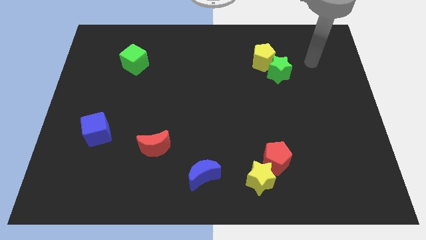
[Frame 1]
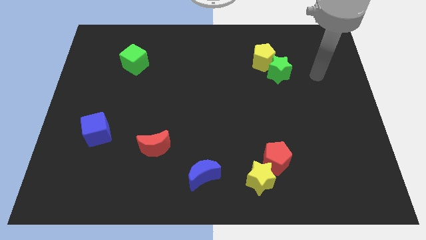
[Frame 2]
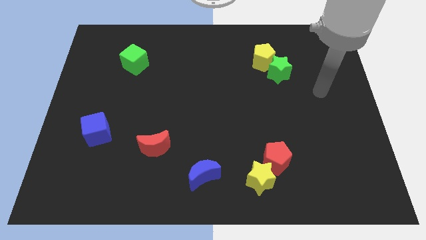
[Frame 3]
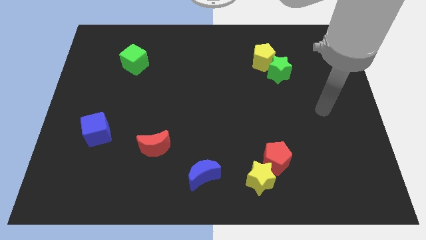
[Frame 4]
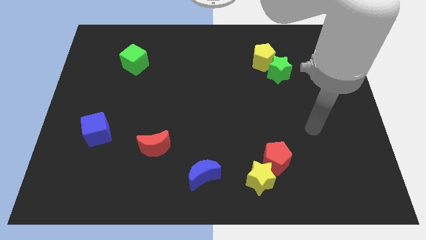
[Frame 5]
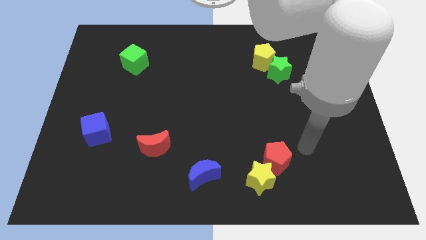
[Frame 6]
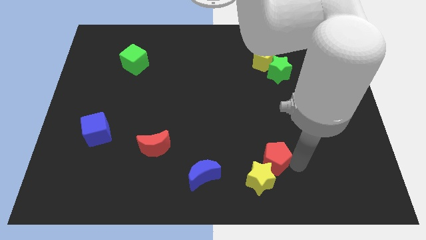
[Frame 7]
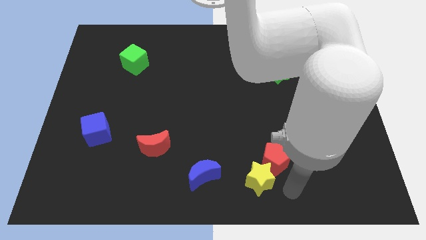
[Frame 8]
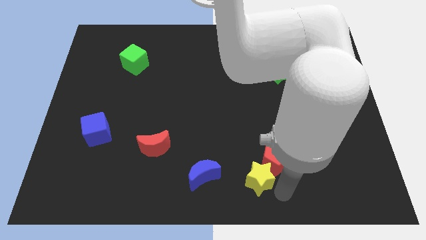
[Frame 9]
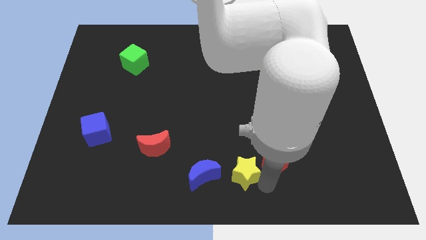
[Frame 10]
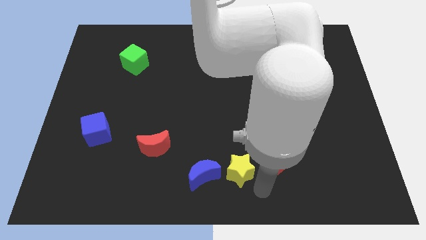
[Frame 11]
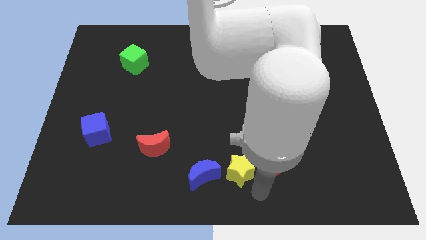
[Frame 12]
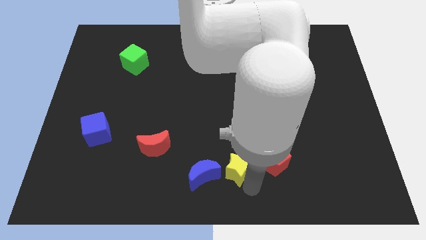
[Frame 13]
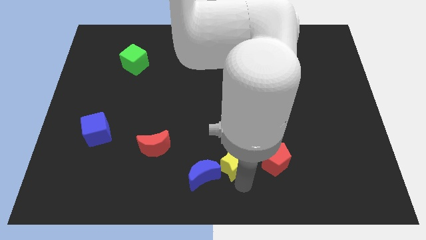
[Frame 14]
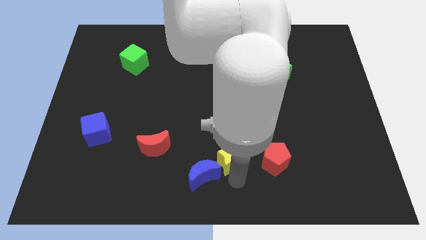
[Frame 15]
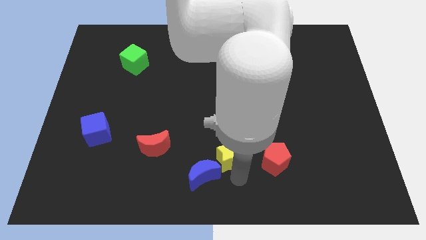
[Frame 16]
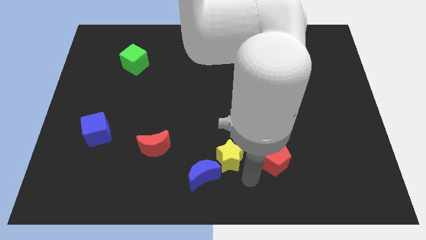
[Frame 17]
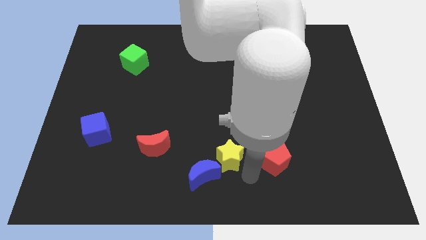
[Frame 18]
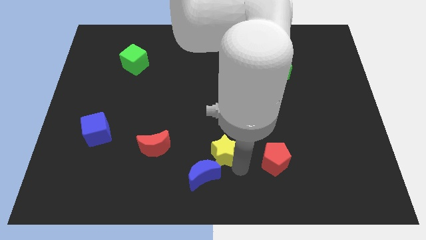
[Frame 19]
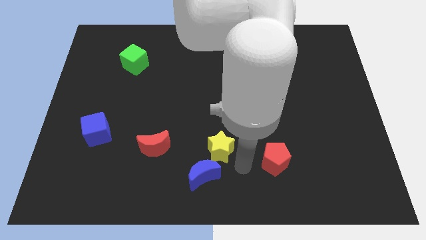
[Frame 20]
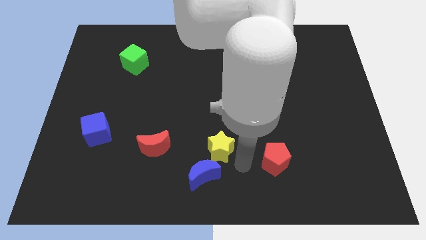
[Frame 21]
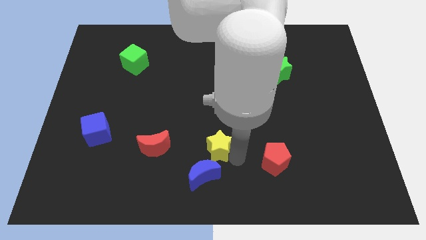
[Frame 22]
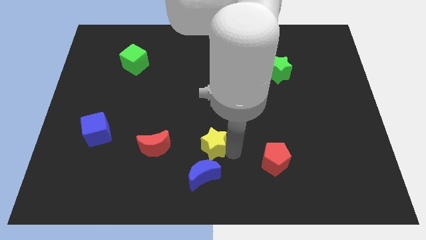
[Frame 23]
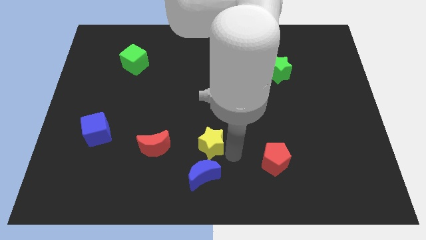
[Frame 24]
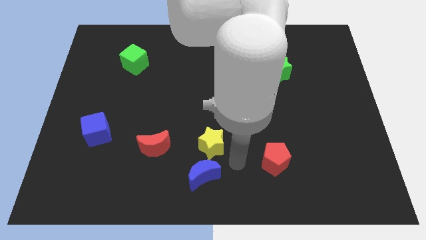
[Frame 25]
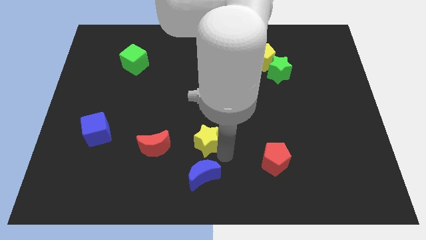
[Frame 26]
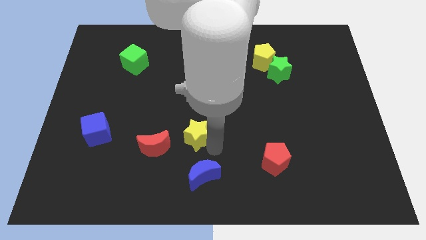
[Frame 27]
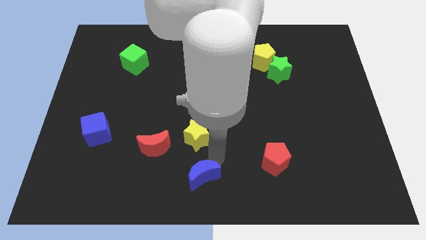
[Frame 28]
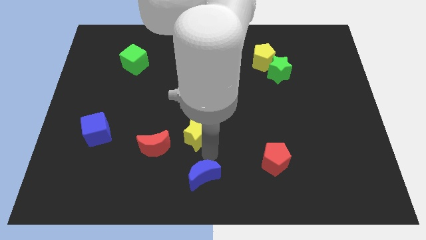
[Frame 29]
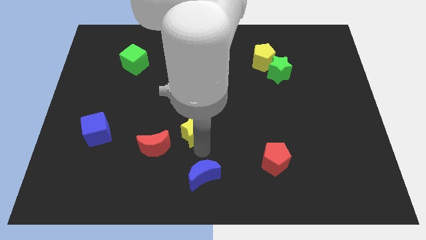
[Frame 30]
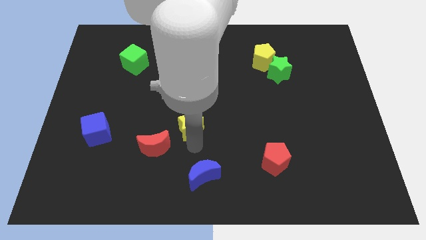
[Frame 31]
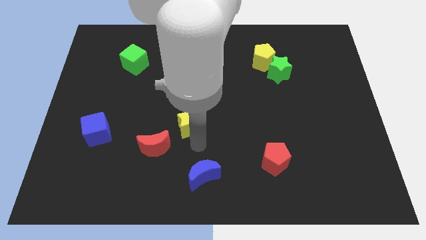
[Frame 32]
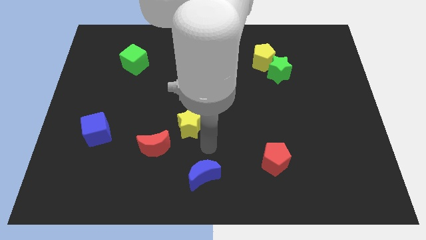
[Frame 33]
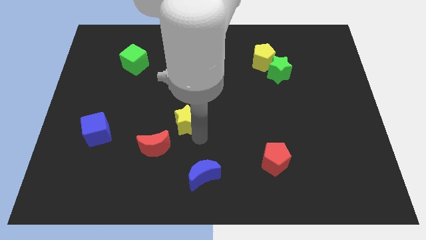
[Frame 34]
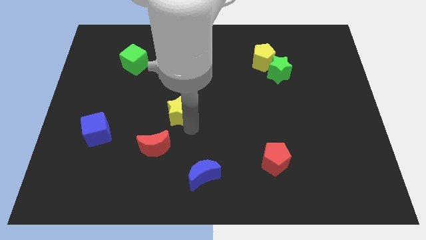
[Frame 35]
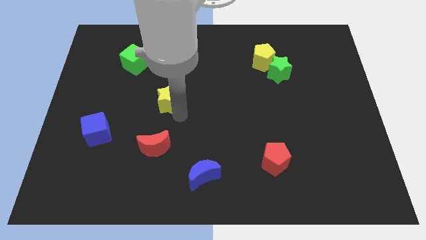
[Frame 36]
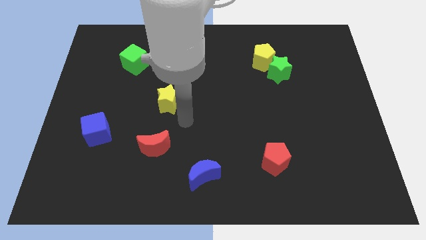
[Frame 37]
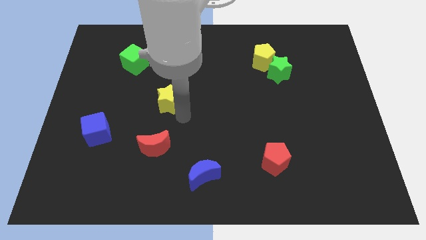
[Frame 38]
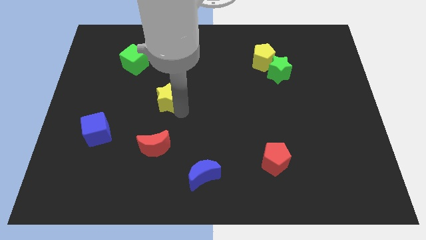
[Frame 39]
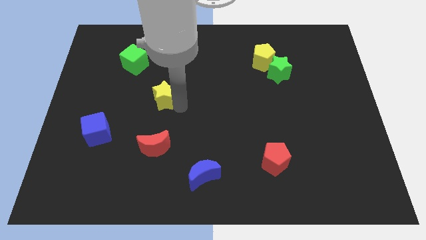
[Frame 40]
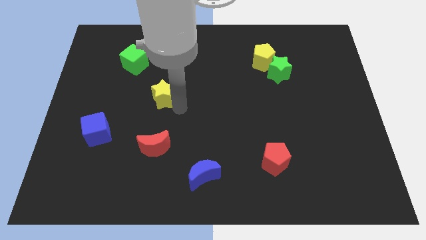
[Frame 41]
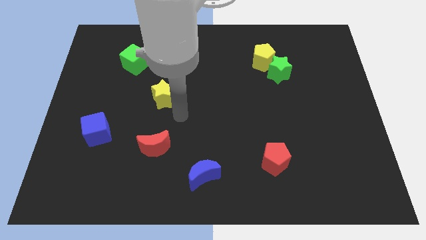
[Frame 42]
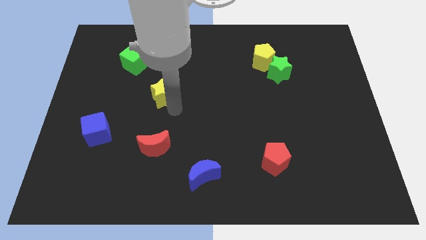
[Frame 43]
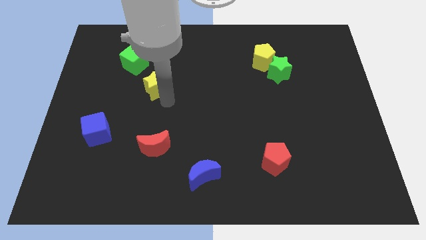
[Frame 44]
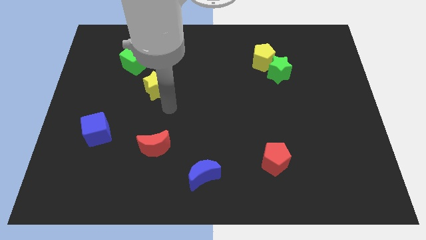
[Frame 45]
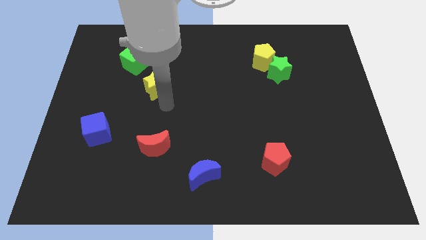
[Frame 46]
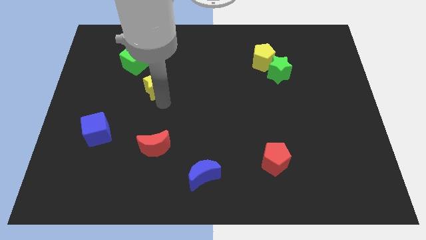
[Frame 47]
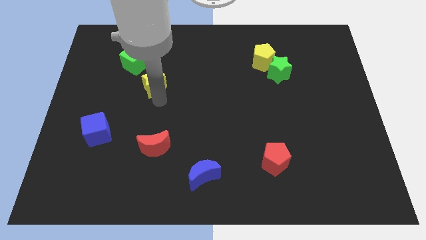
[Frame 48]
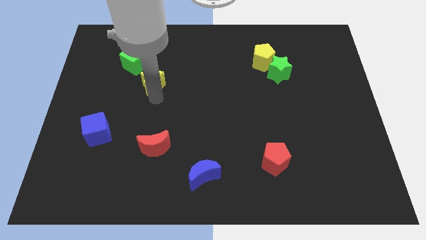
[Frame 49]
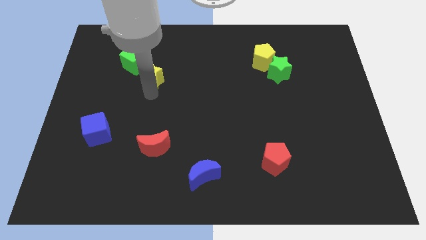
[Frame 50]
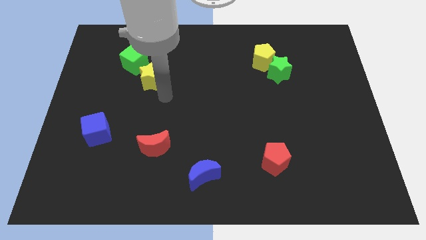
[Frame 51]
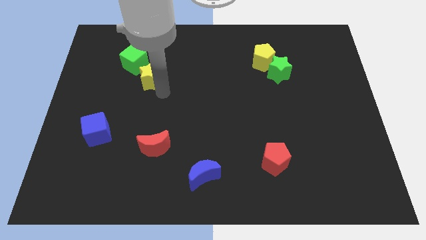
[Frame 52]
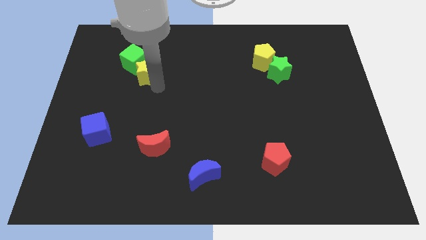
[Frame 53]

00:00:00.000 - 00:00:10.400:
put the yellow star close to the green cube

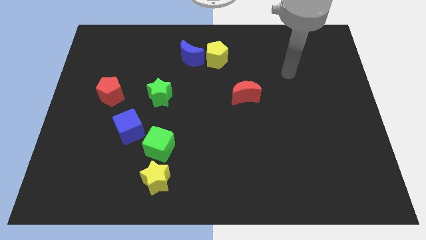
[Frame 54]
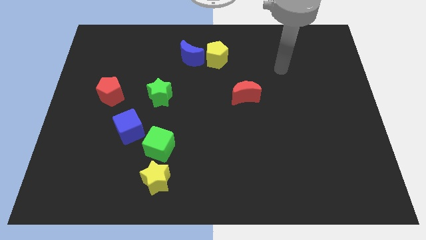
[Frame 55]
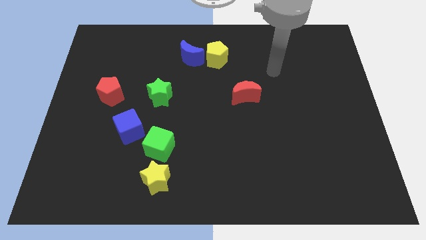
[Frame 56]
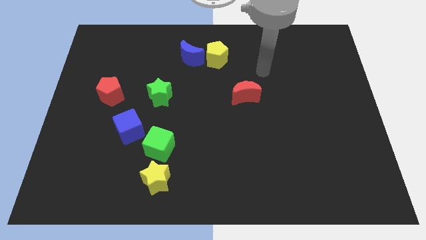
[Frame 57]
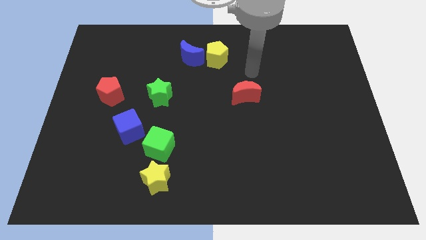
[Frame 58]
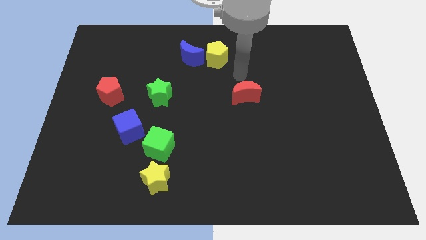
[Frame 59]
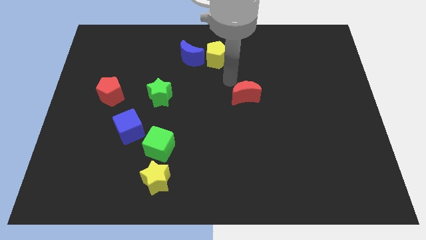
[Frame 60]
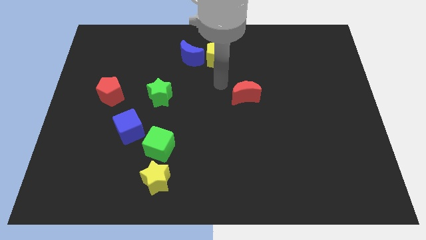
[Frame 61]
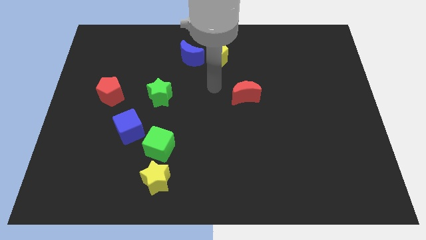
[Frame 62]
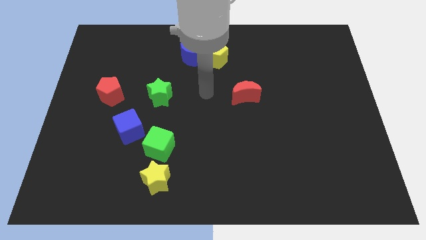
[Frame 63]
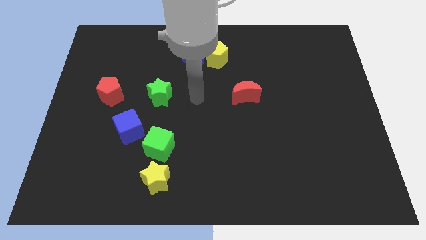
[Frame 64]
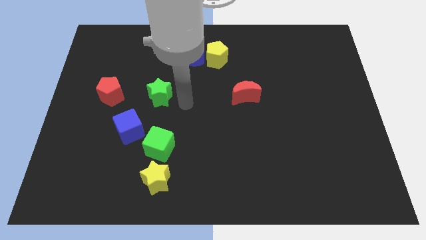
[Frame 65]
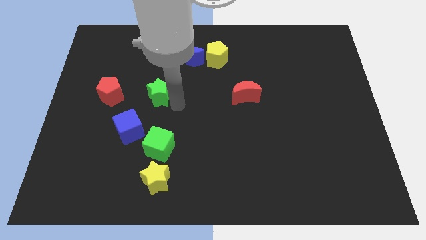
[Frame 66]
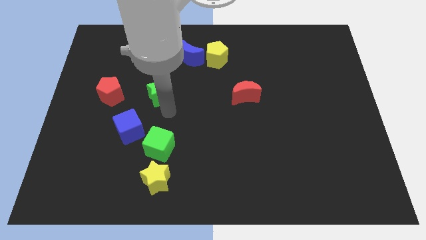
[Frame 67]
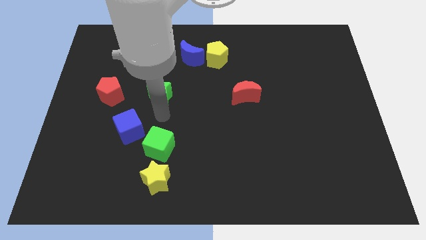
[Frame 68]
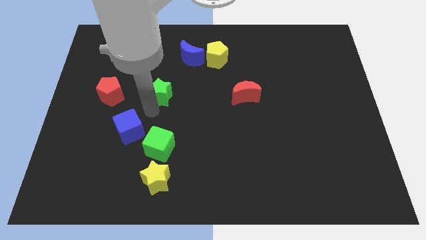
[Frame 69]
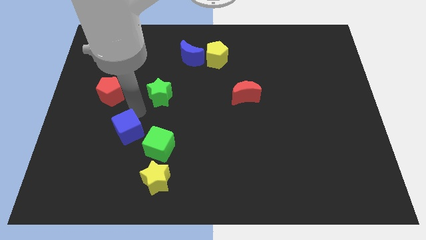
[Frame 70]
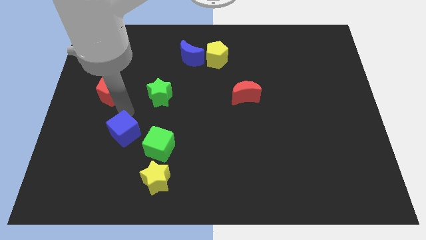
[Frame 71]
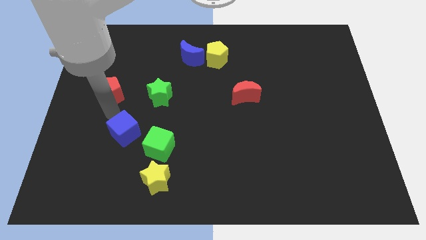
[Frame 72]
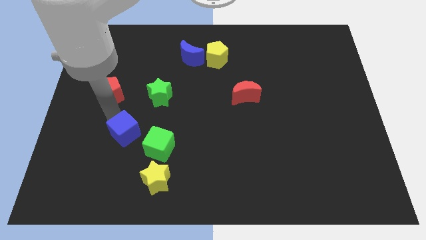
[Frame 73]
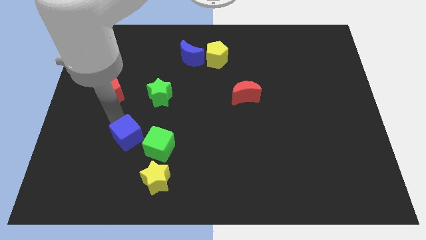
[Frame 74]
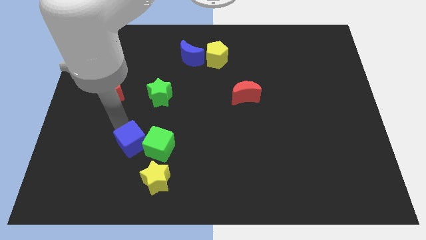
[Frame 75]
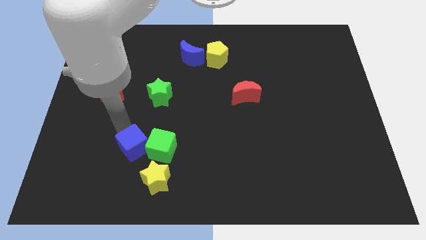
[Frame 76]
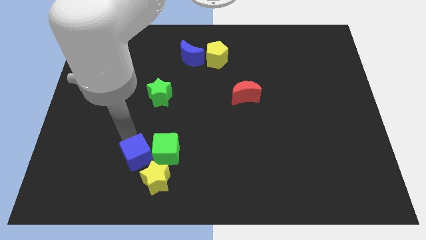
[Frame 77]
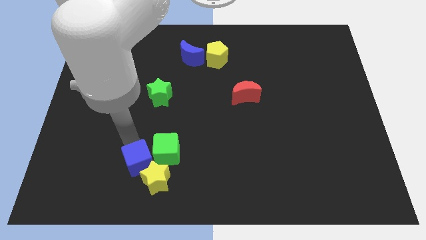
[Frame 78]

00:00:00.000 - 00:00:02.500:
put the blue cube to the yellow star

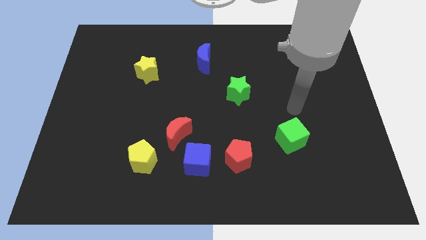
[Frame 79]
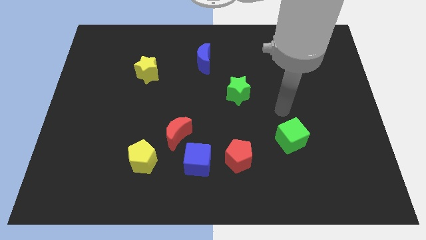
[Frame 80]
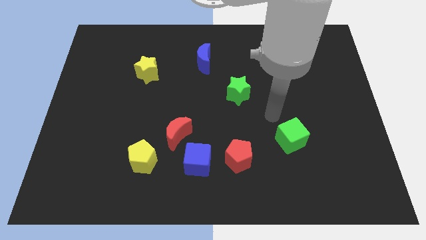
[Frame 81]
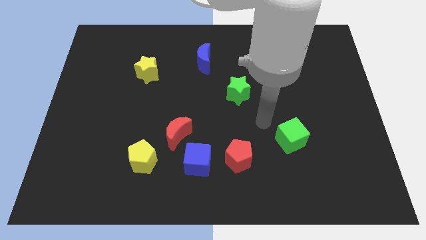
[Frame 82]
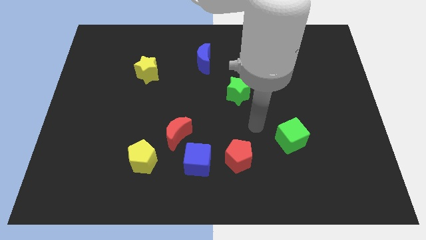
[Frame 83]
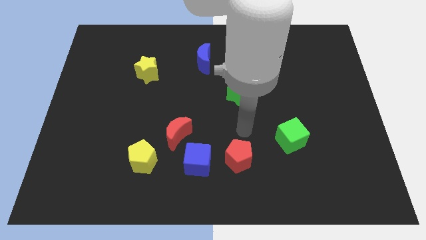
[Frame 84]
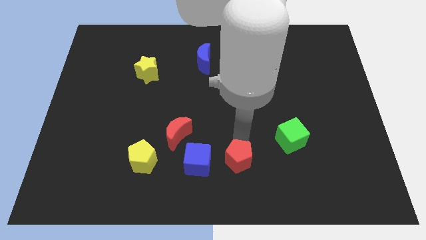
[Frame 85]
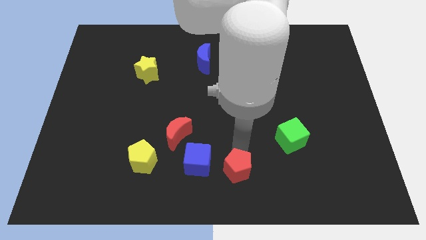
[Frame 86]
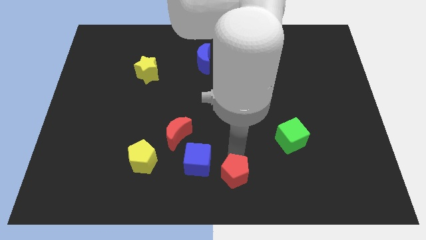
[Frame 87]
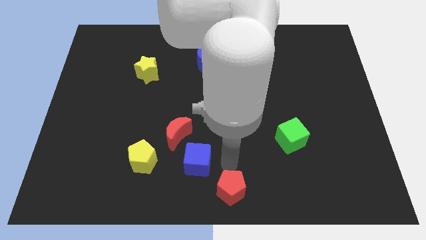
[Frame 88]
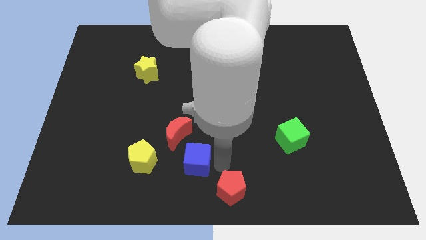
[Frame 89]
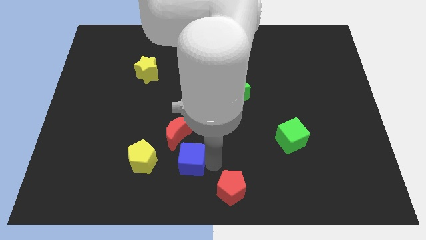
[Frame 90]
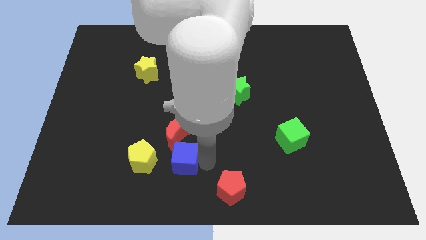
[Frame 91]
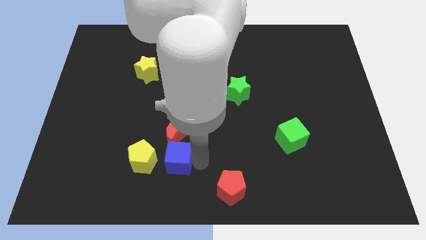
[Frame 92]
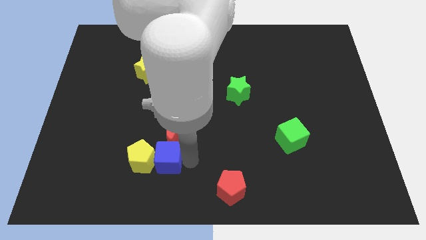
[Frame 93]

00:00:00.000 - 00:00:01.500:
push the blue cube next to the yellow pentagon
